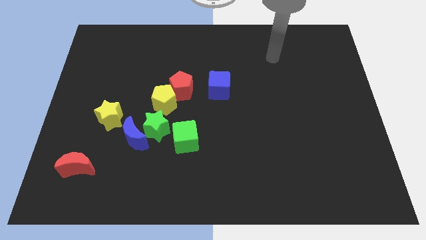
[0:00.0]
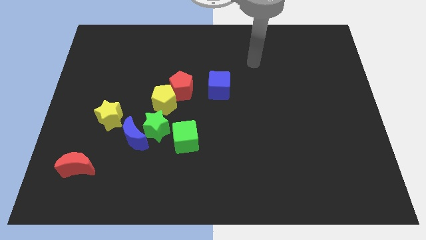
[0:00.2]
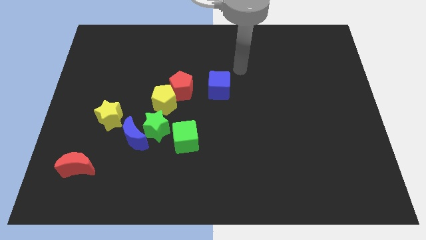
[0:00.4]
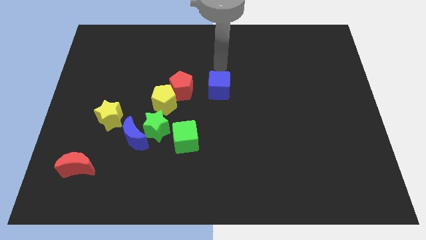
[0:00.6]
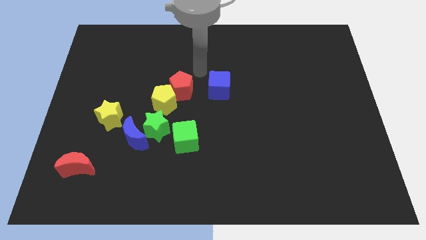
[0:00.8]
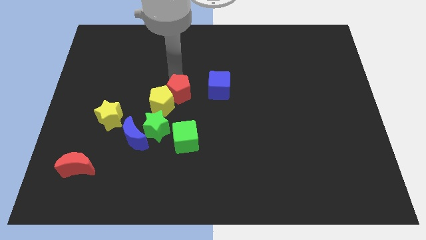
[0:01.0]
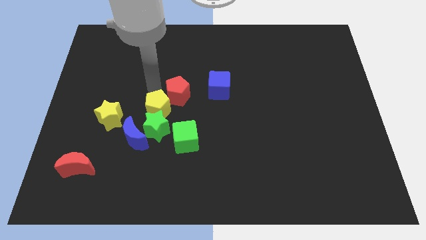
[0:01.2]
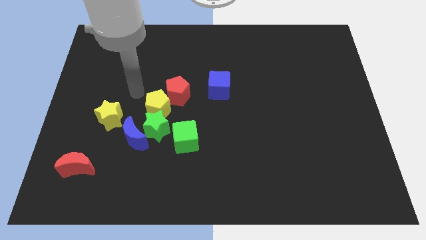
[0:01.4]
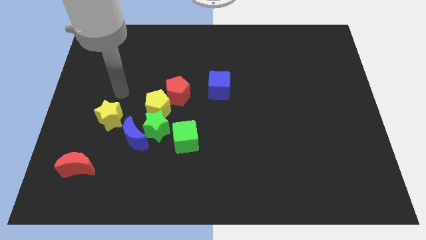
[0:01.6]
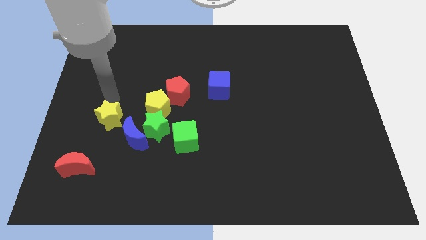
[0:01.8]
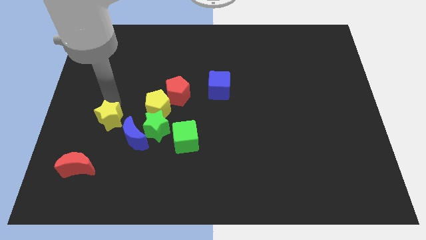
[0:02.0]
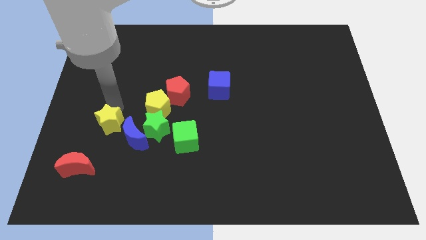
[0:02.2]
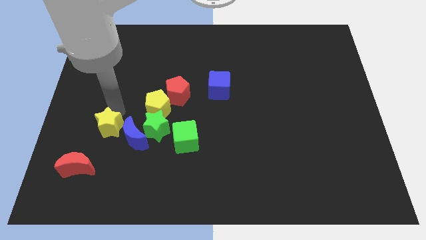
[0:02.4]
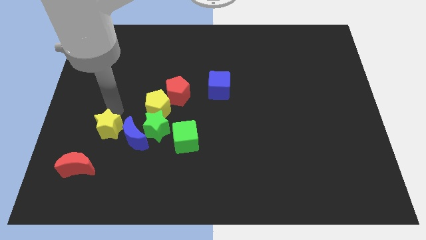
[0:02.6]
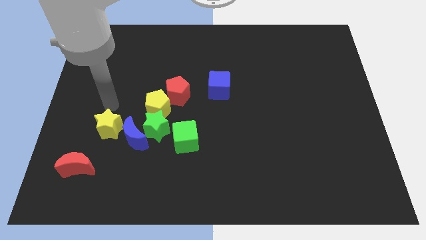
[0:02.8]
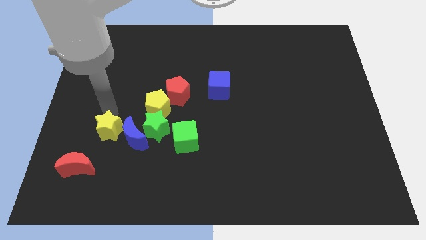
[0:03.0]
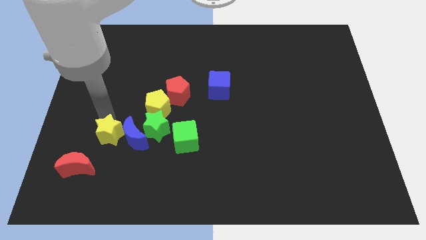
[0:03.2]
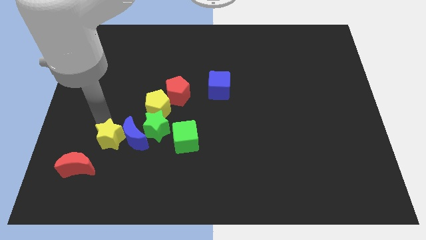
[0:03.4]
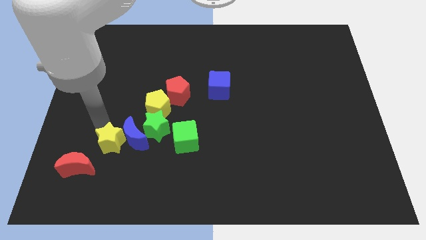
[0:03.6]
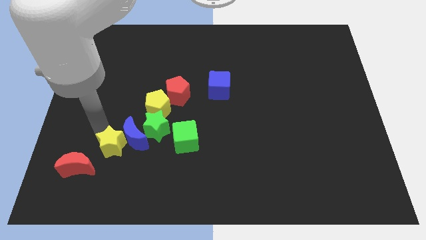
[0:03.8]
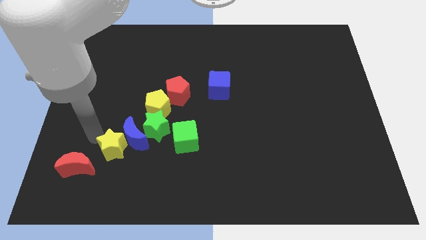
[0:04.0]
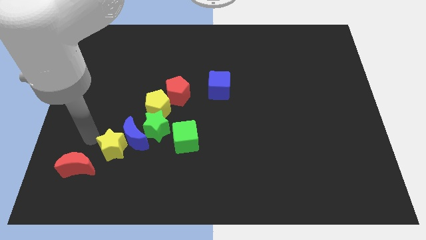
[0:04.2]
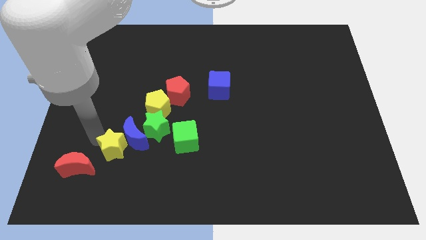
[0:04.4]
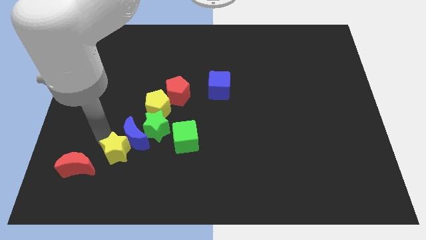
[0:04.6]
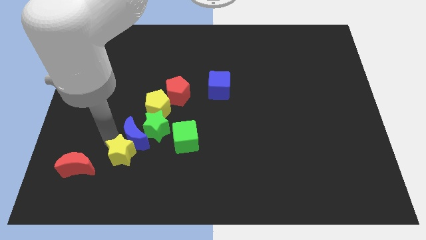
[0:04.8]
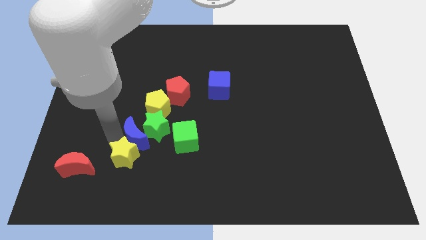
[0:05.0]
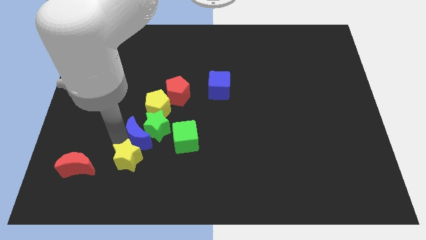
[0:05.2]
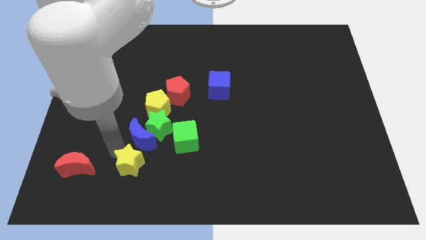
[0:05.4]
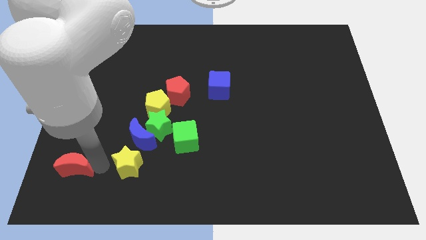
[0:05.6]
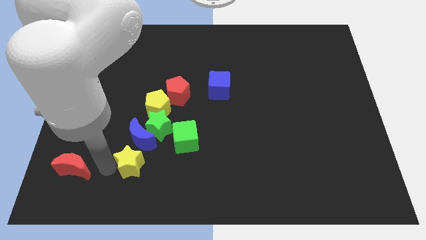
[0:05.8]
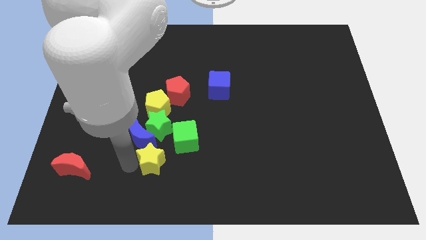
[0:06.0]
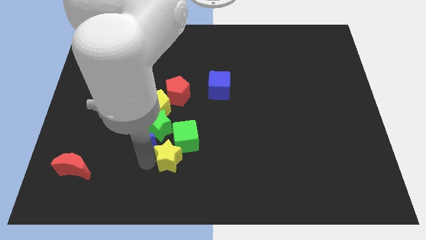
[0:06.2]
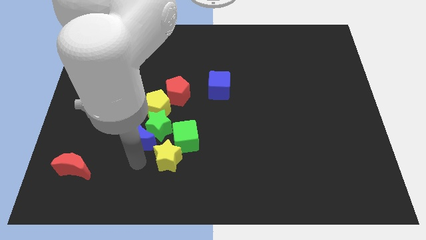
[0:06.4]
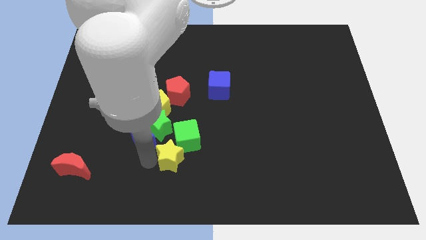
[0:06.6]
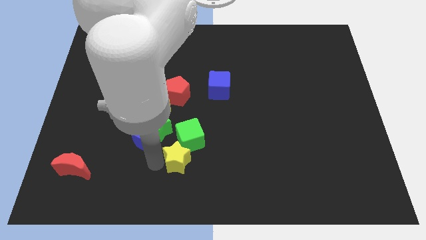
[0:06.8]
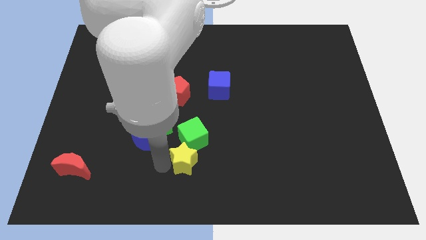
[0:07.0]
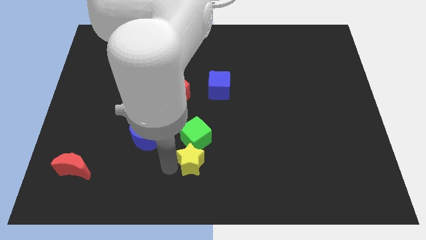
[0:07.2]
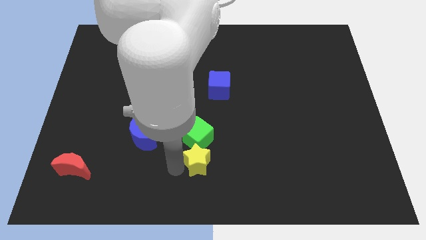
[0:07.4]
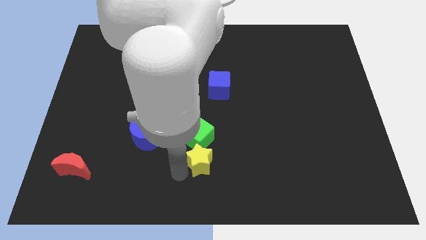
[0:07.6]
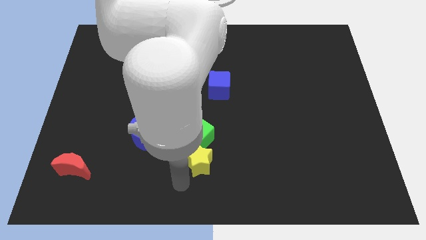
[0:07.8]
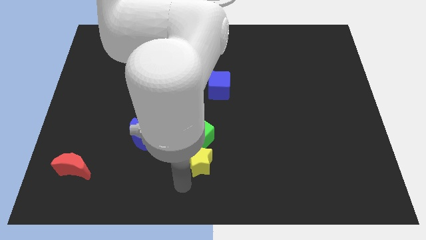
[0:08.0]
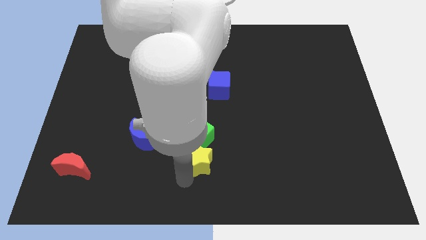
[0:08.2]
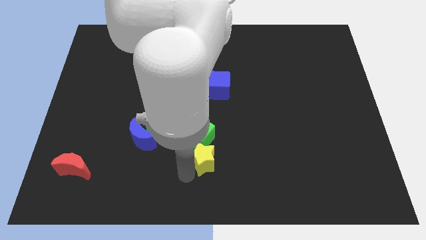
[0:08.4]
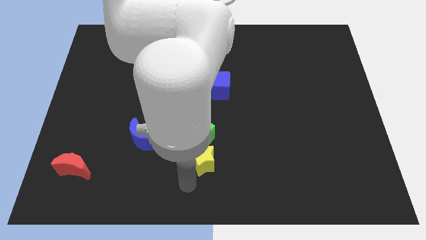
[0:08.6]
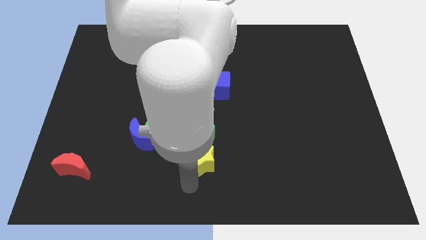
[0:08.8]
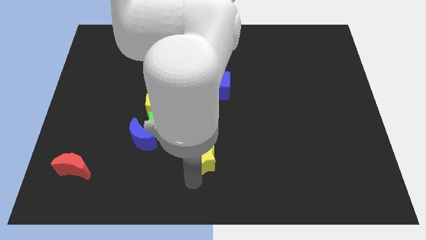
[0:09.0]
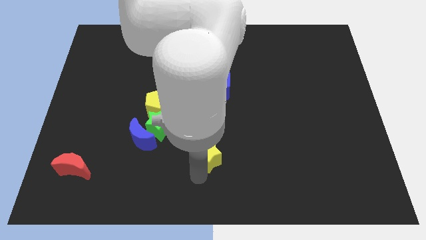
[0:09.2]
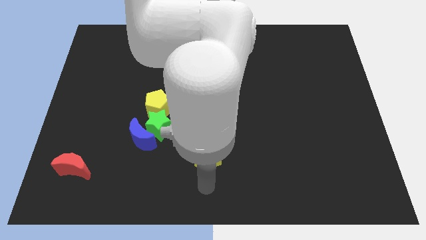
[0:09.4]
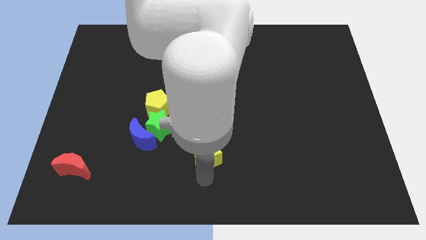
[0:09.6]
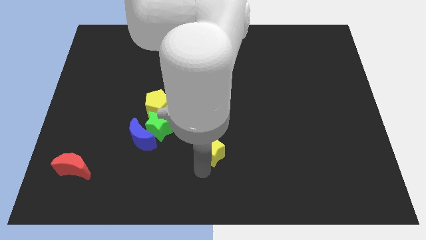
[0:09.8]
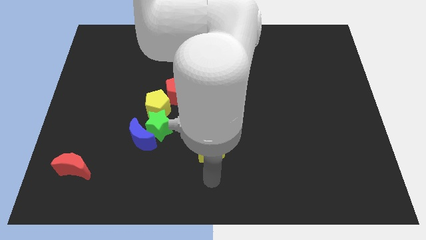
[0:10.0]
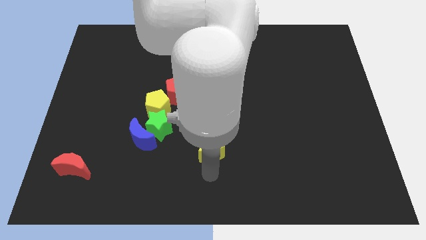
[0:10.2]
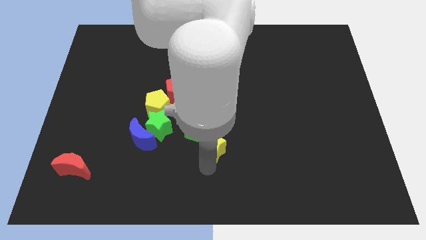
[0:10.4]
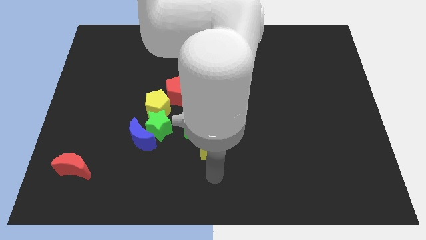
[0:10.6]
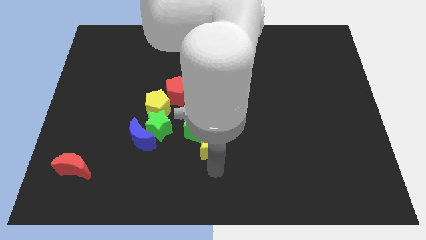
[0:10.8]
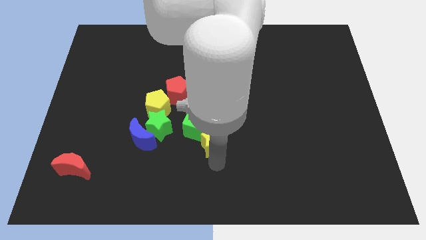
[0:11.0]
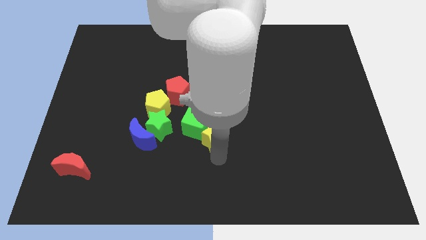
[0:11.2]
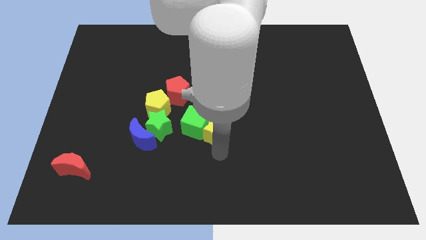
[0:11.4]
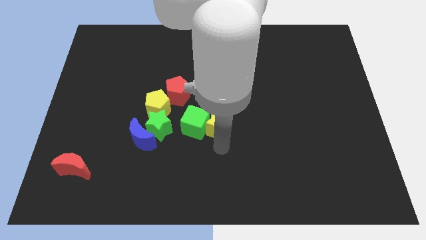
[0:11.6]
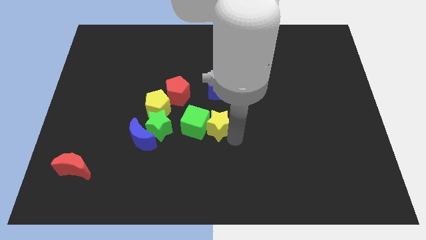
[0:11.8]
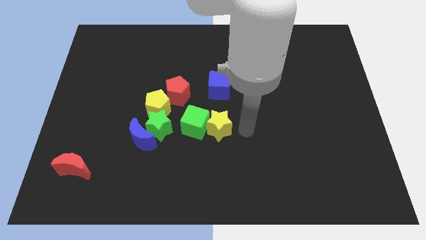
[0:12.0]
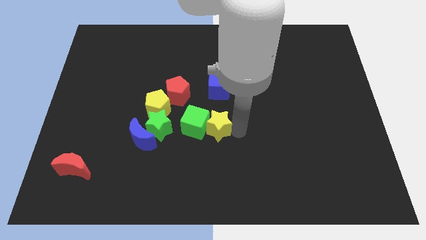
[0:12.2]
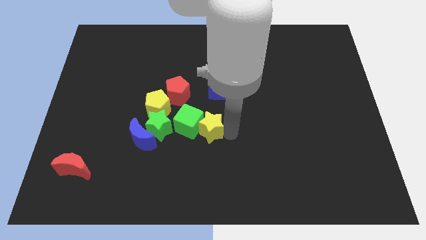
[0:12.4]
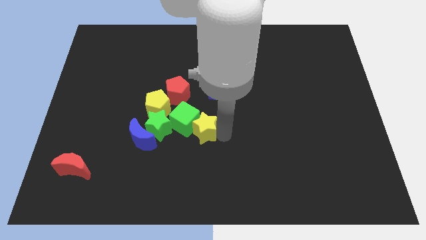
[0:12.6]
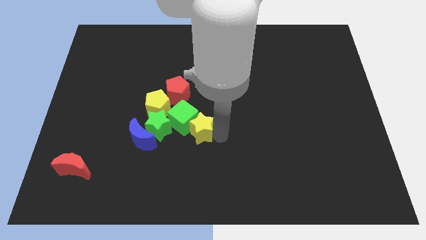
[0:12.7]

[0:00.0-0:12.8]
put the yellow star diagonally down and to the right of the yellow pentagon

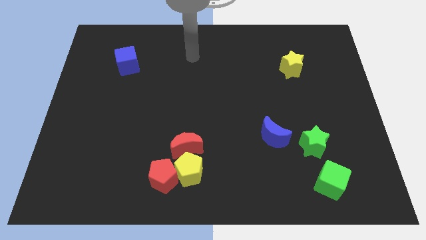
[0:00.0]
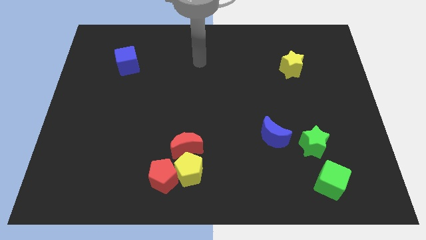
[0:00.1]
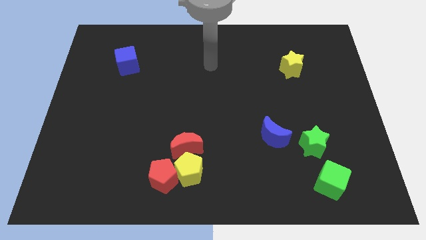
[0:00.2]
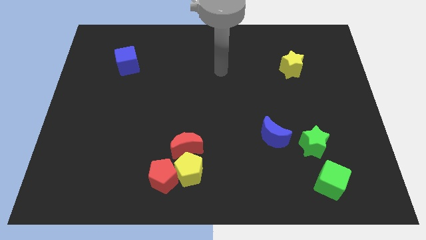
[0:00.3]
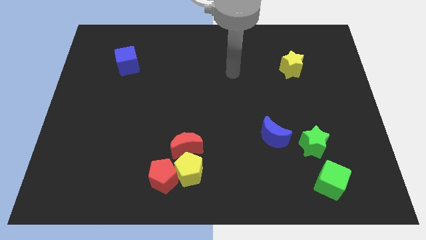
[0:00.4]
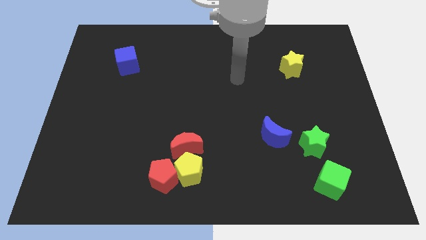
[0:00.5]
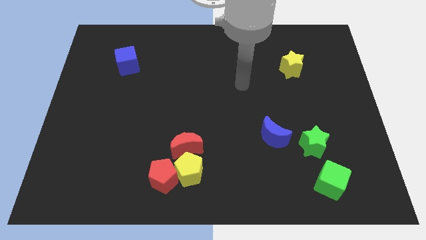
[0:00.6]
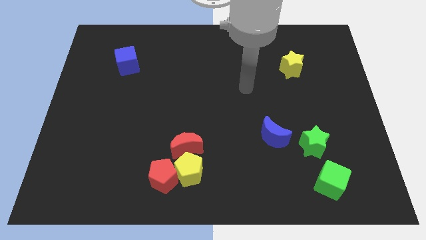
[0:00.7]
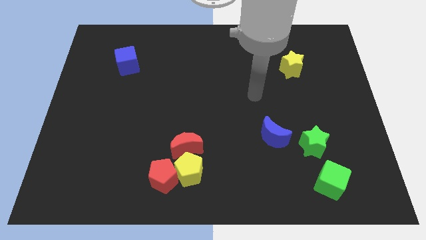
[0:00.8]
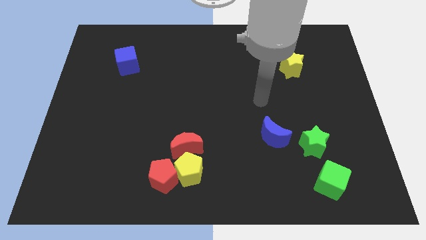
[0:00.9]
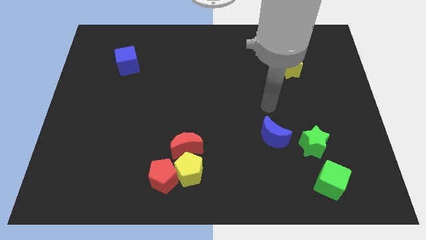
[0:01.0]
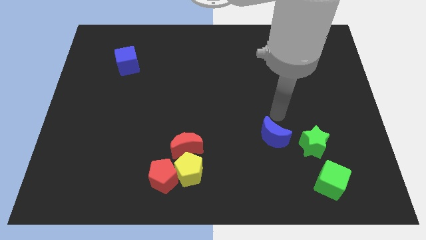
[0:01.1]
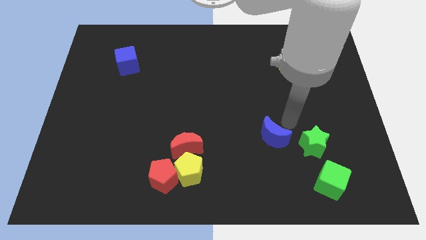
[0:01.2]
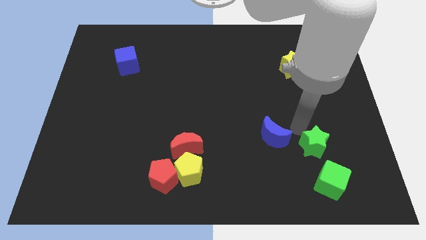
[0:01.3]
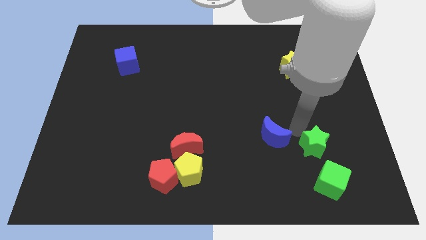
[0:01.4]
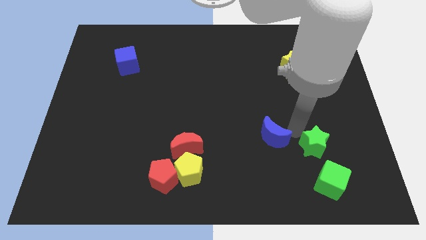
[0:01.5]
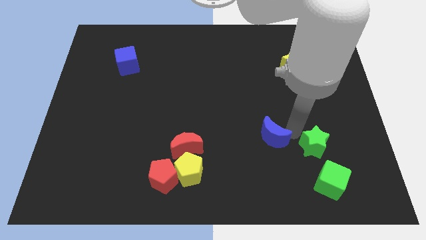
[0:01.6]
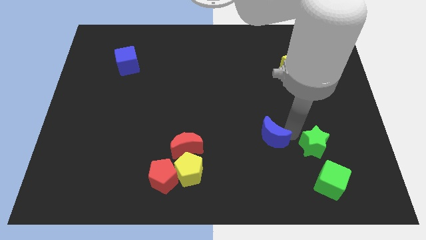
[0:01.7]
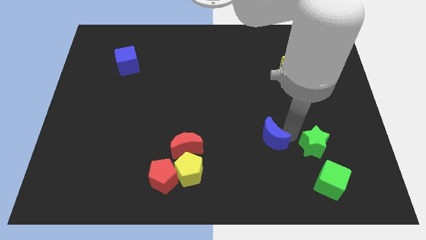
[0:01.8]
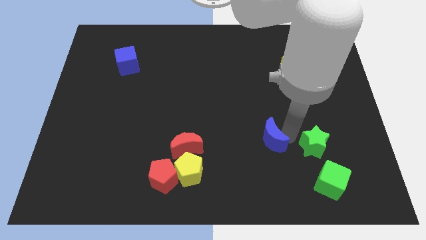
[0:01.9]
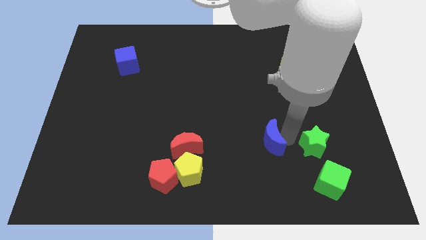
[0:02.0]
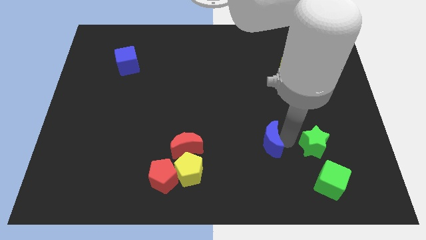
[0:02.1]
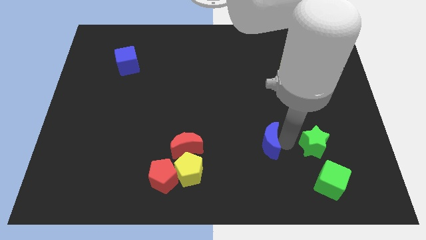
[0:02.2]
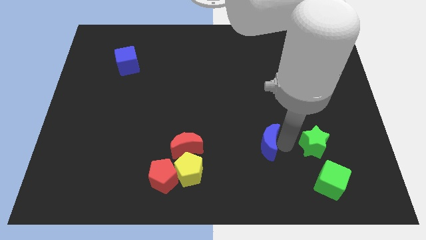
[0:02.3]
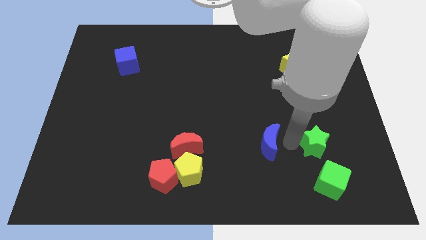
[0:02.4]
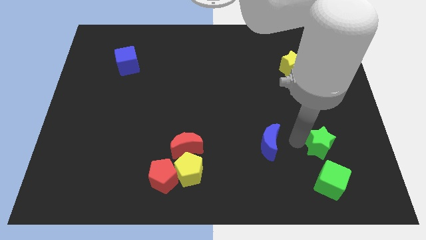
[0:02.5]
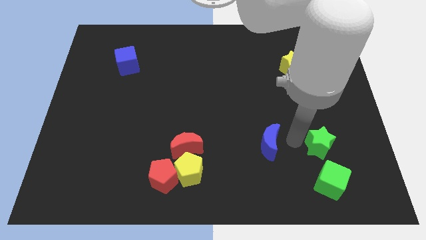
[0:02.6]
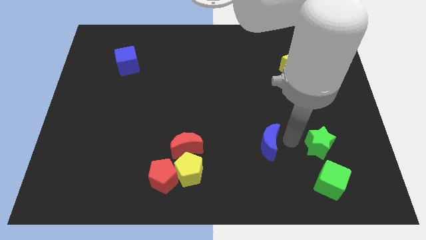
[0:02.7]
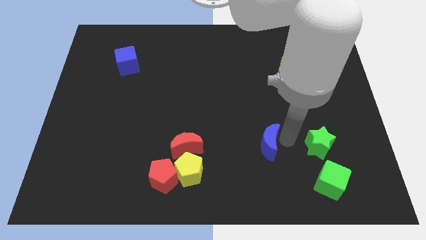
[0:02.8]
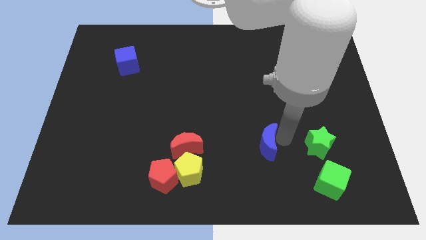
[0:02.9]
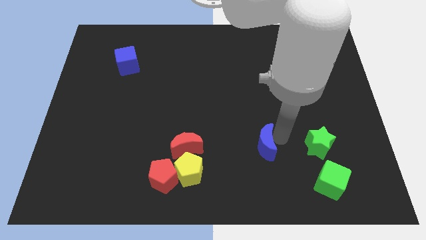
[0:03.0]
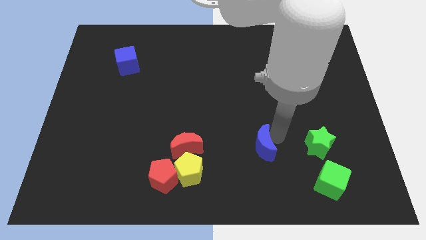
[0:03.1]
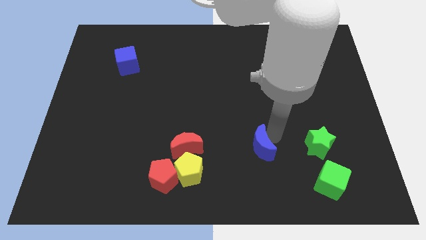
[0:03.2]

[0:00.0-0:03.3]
push the blue moon to the right of the red moon
